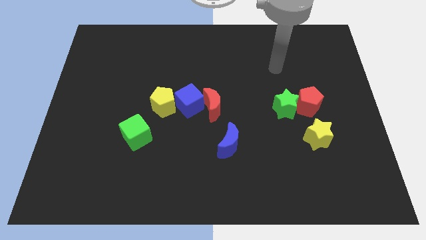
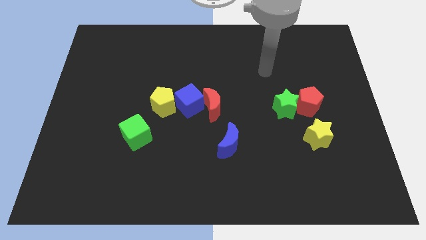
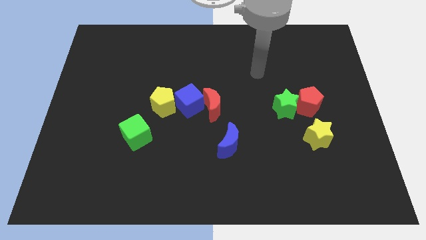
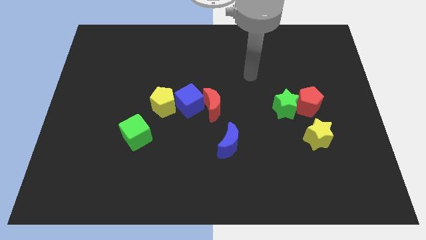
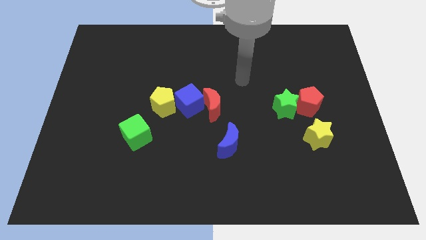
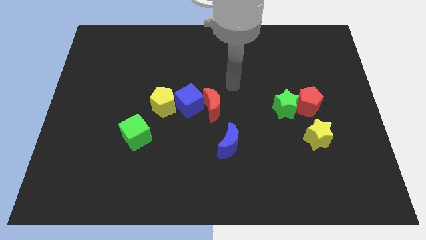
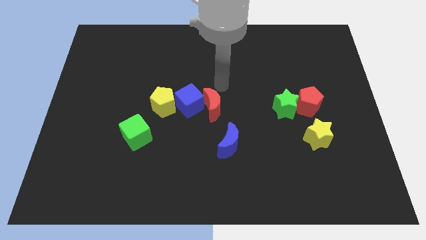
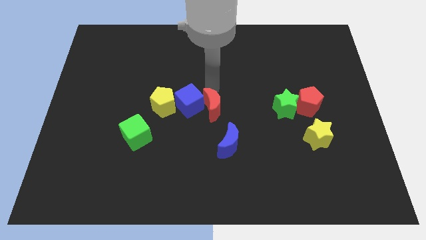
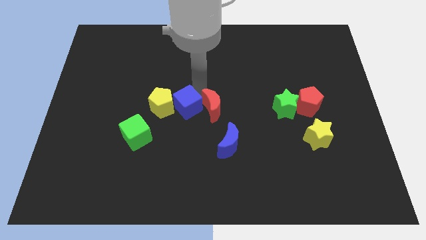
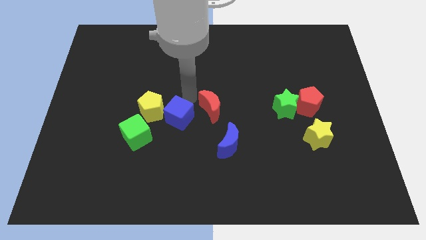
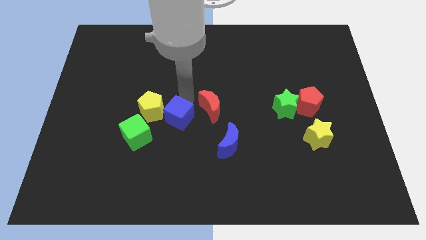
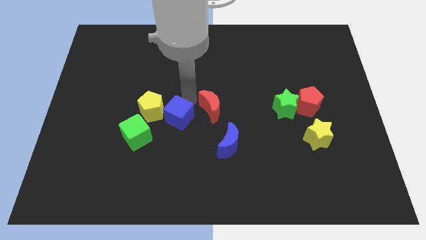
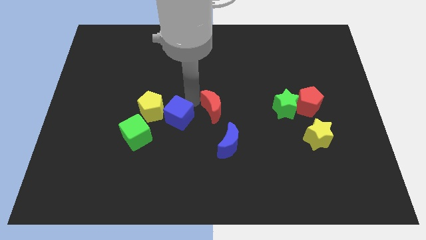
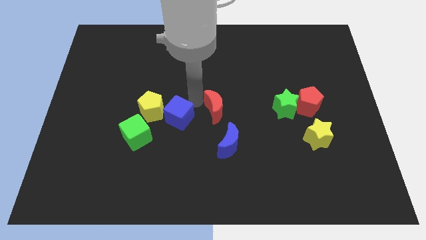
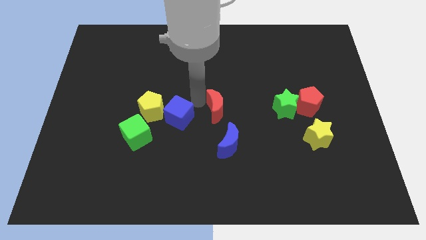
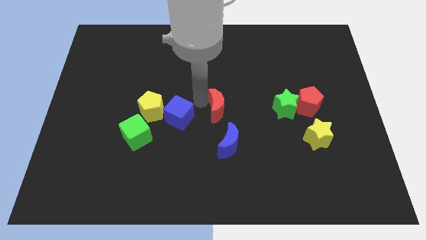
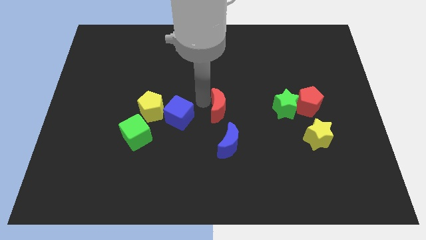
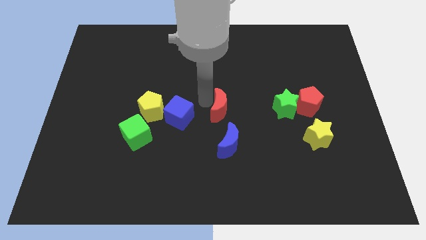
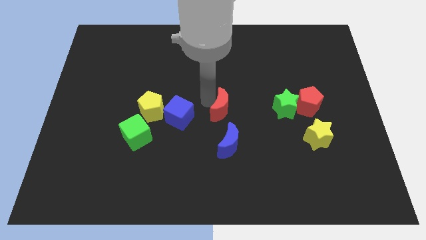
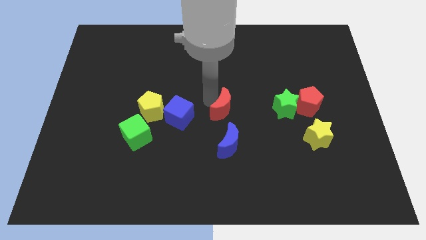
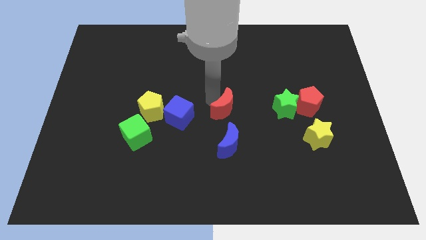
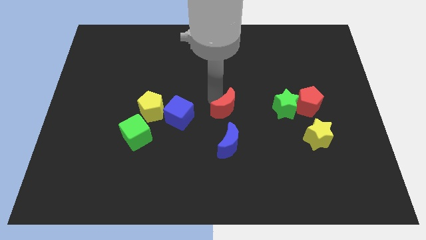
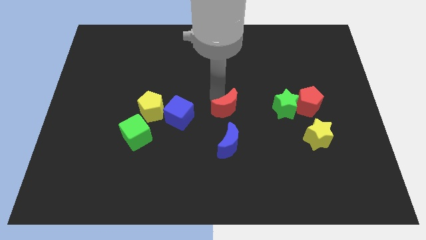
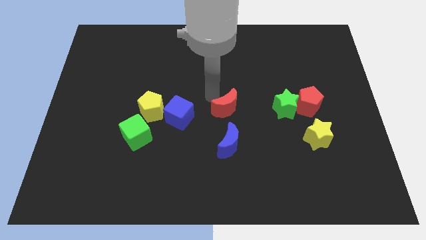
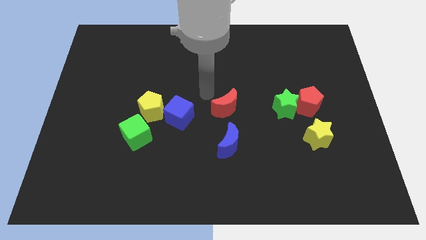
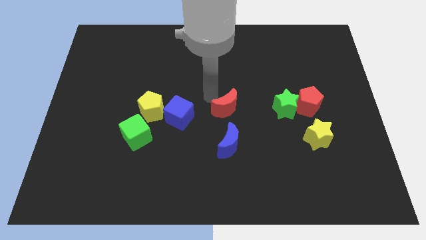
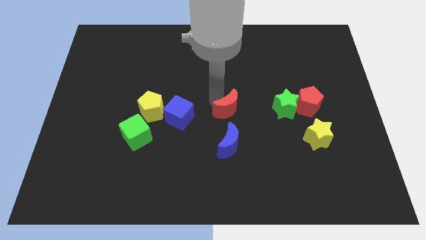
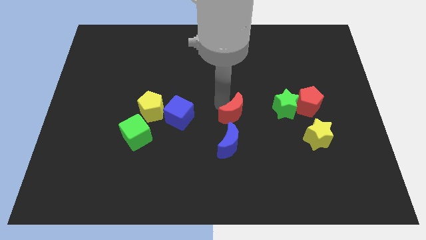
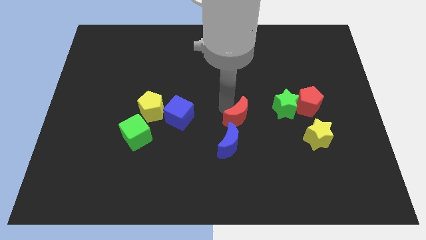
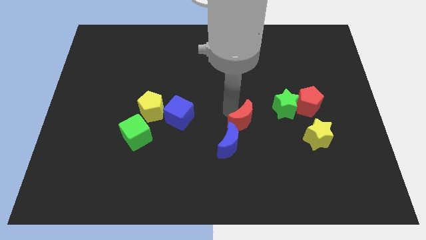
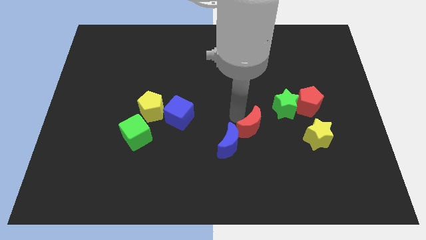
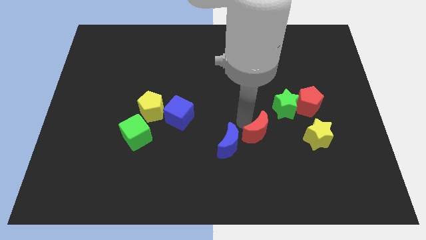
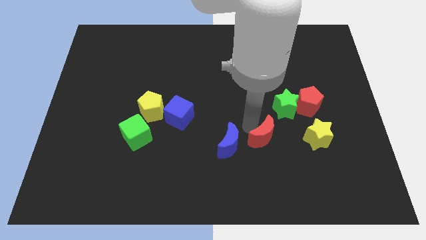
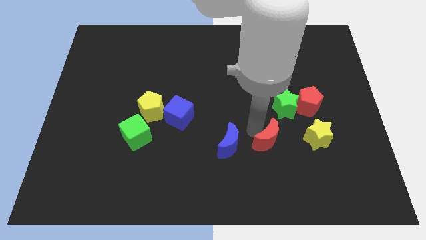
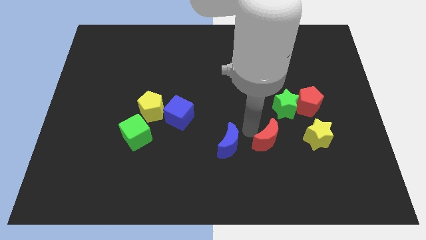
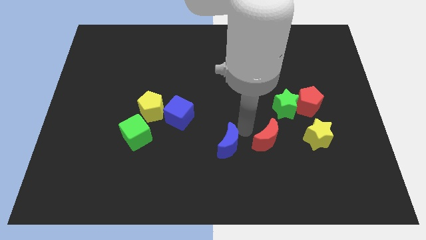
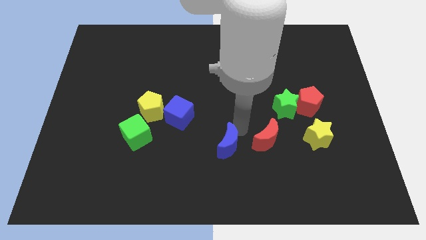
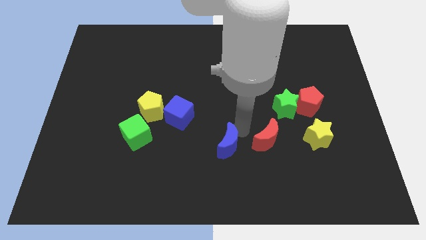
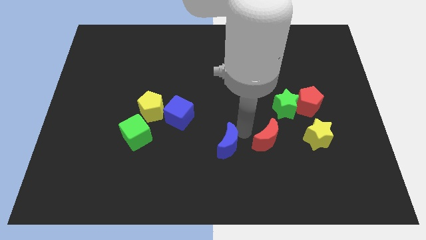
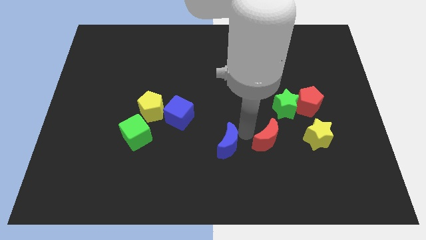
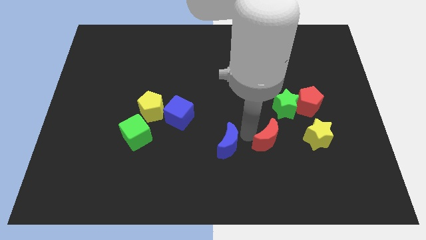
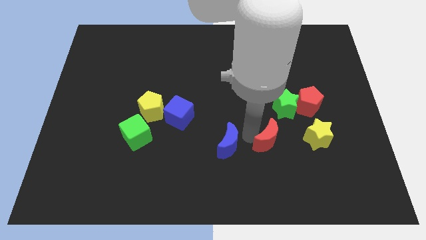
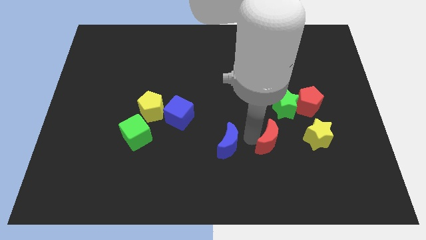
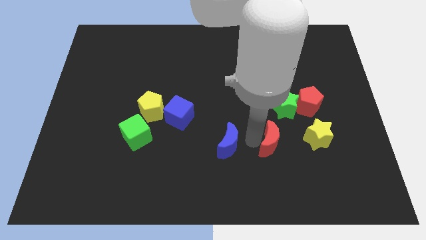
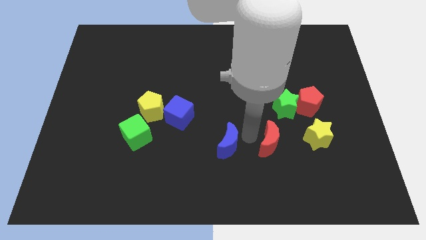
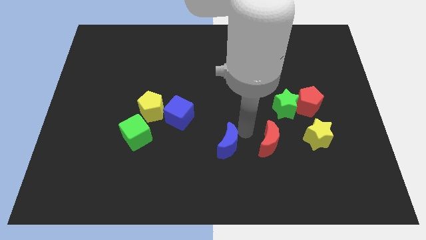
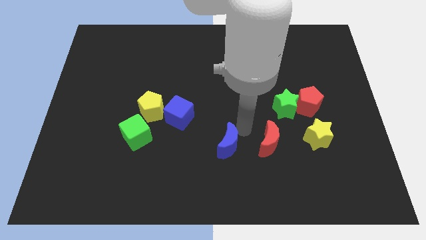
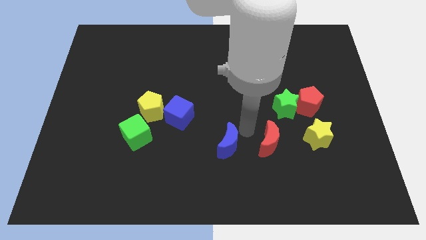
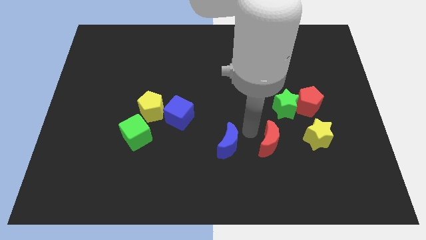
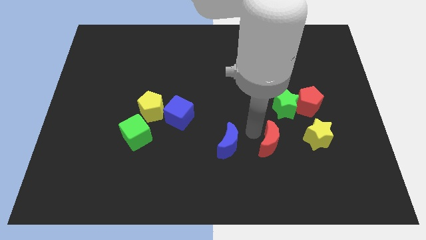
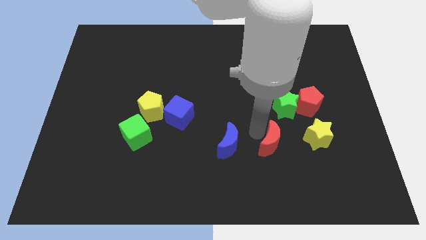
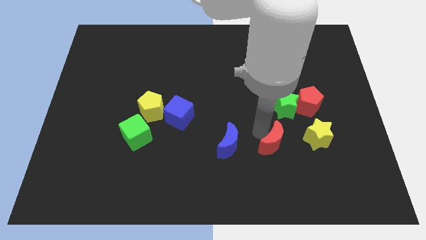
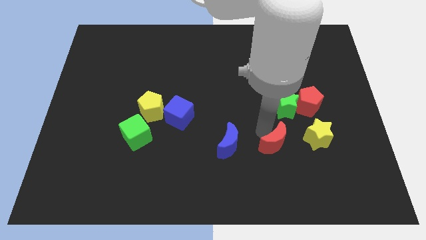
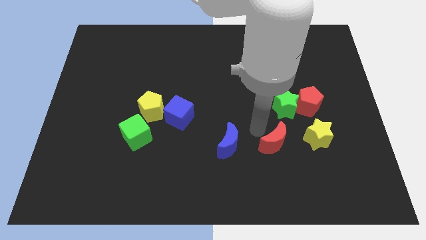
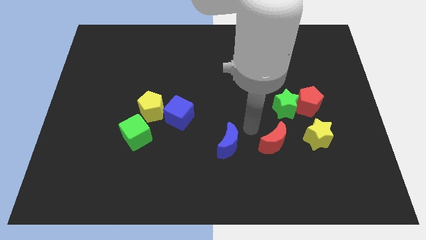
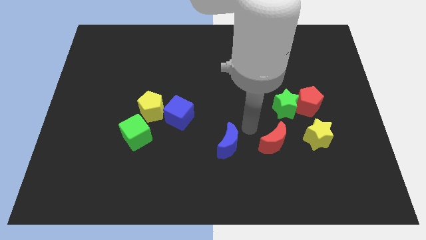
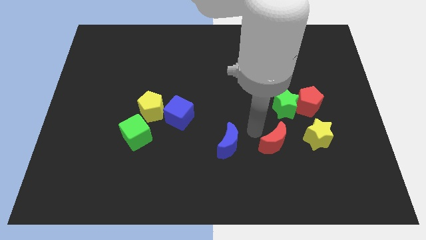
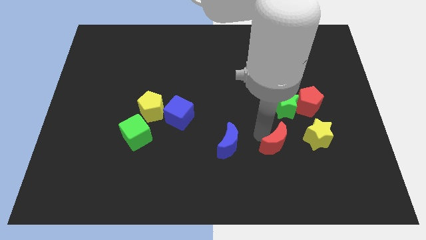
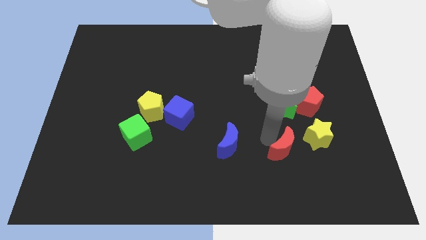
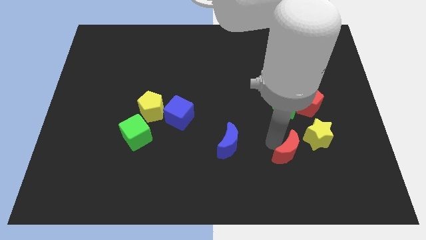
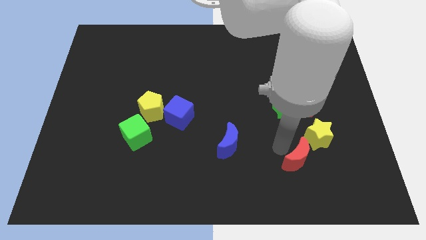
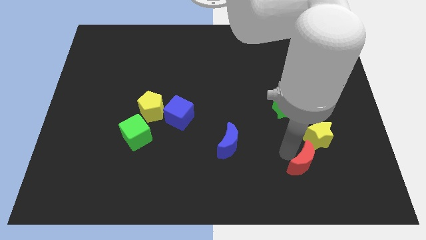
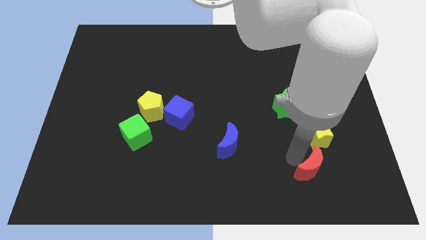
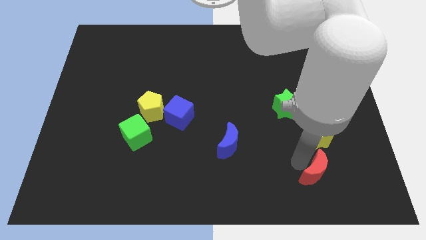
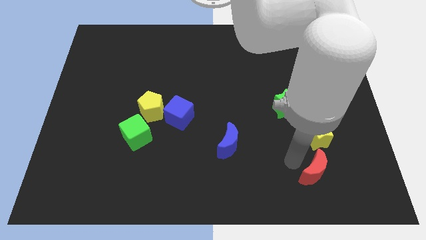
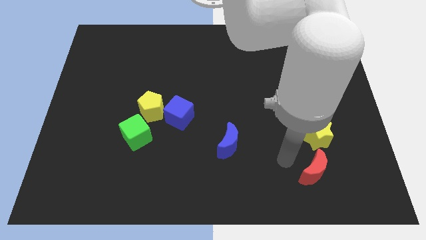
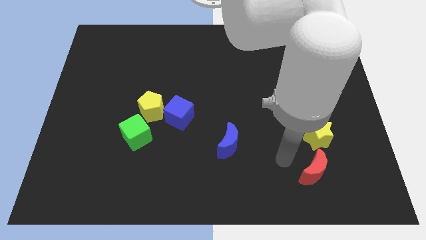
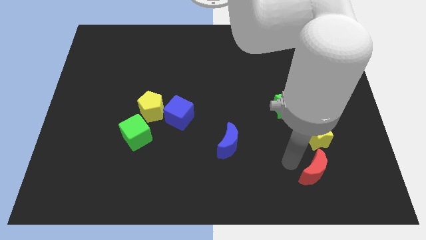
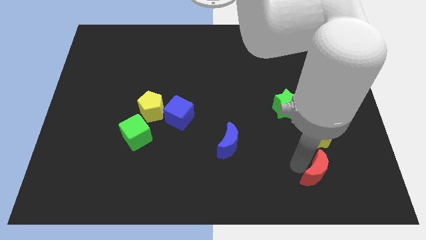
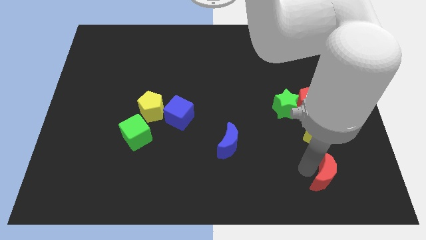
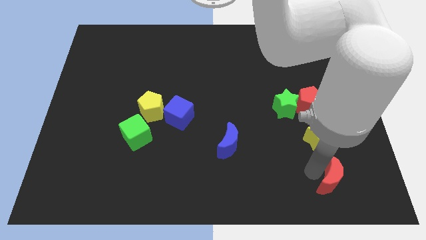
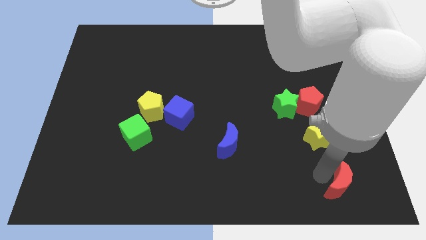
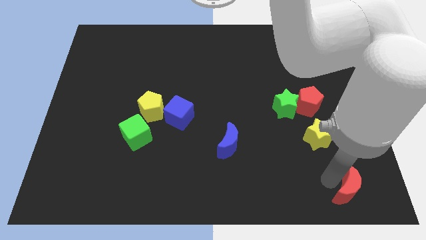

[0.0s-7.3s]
slide the red moon to the bottom right corner
